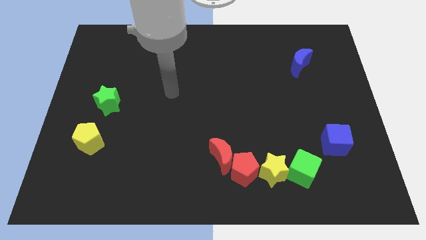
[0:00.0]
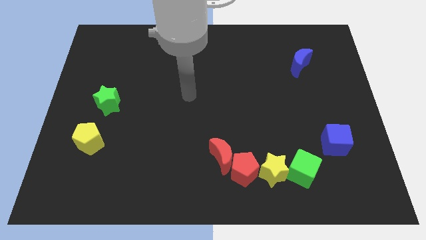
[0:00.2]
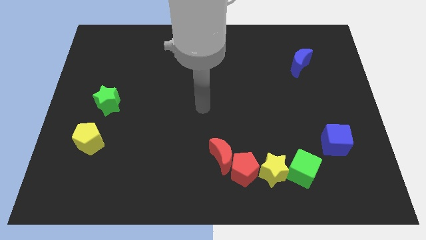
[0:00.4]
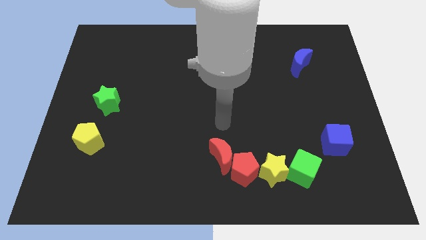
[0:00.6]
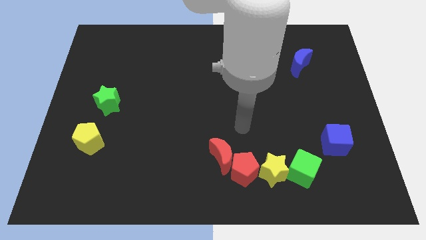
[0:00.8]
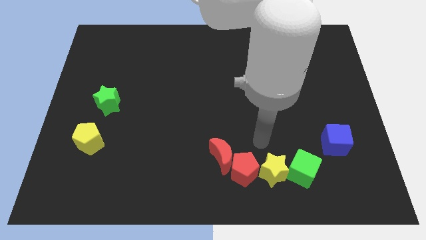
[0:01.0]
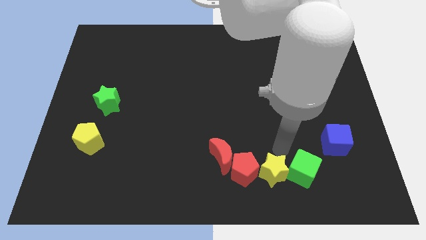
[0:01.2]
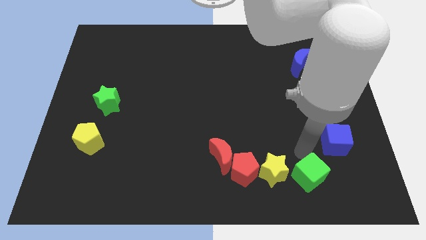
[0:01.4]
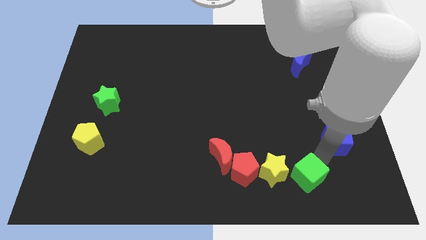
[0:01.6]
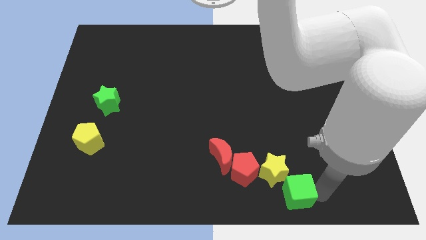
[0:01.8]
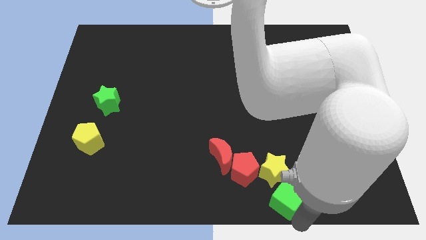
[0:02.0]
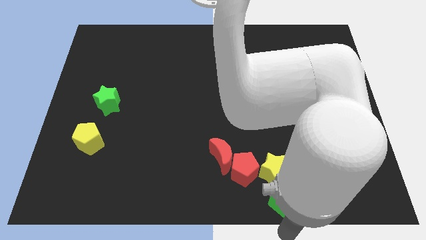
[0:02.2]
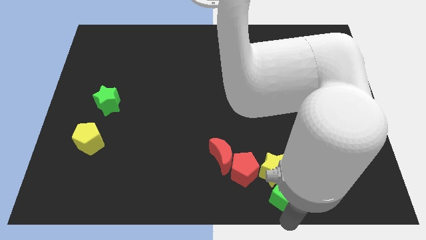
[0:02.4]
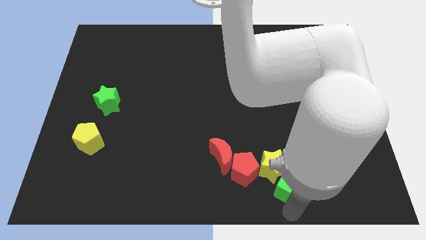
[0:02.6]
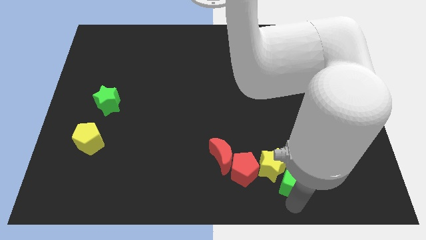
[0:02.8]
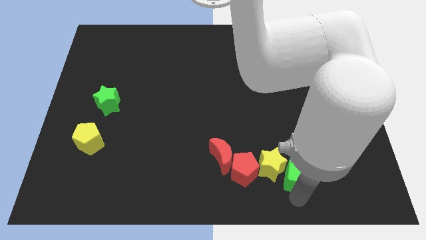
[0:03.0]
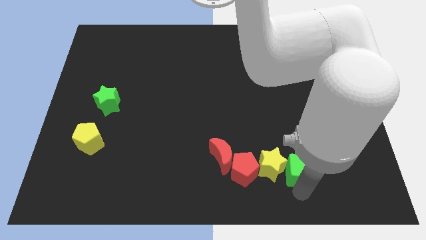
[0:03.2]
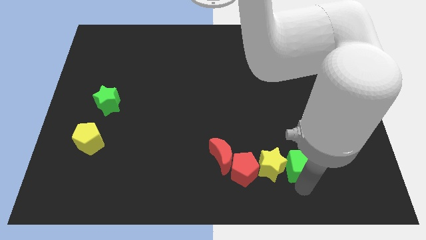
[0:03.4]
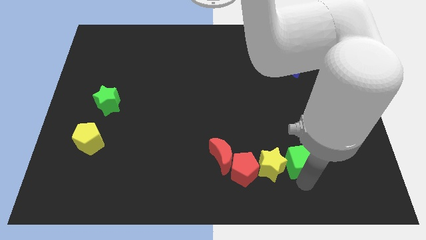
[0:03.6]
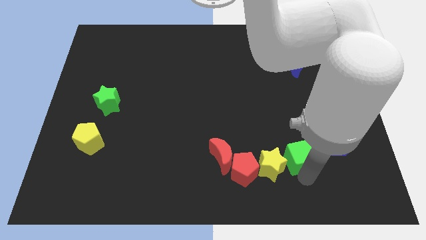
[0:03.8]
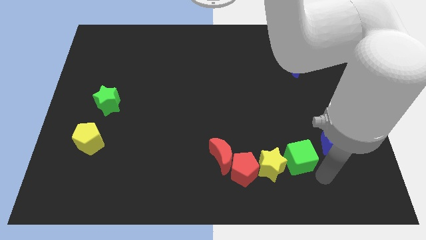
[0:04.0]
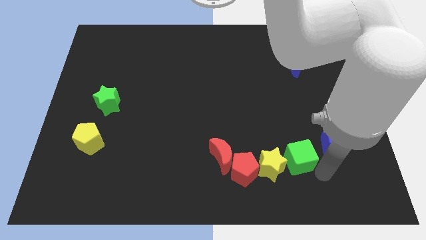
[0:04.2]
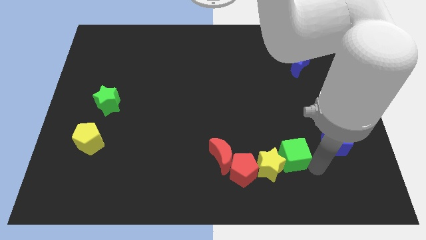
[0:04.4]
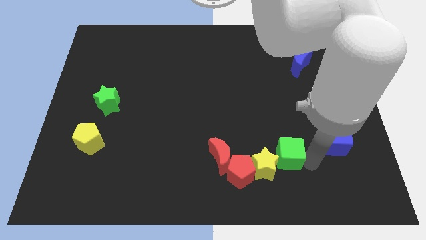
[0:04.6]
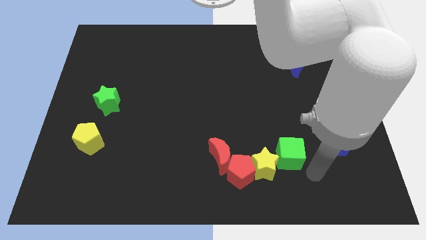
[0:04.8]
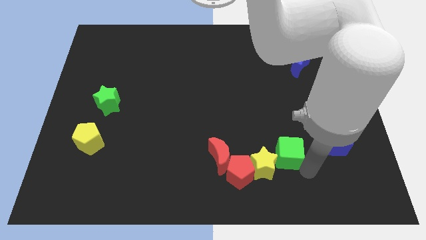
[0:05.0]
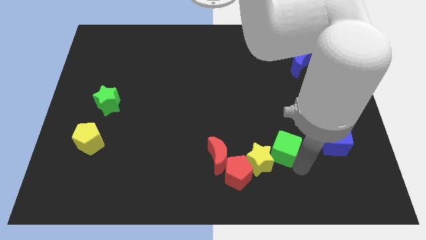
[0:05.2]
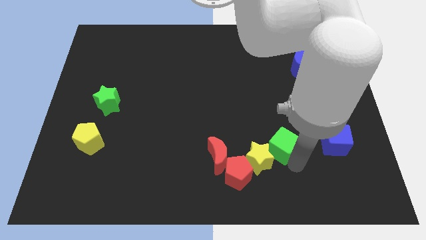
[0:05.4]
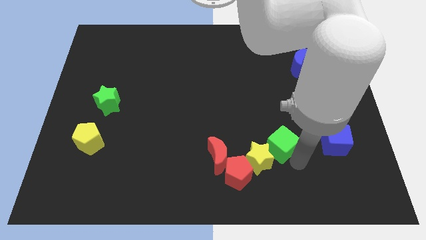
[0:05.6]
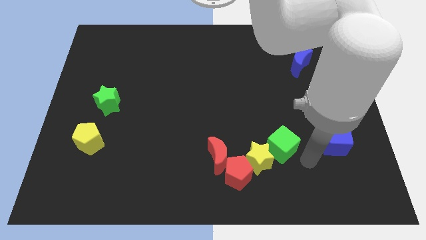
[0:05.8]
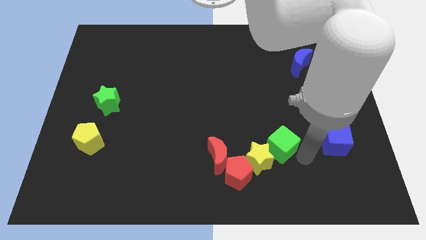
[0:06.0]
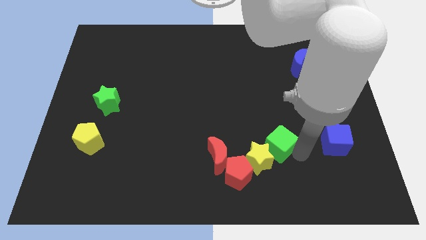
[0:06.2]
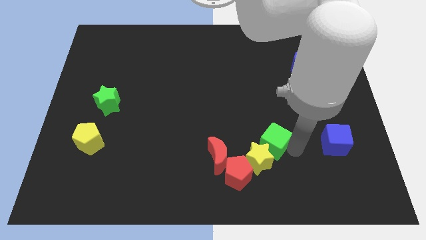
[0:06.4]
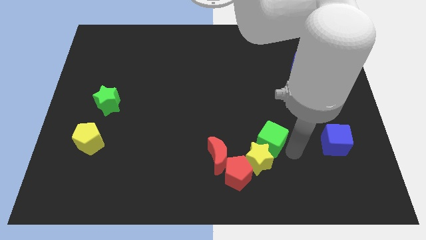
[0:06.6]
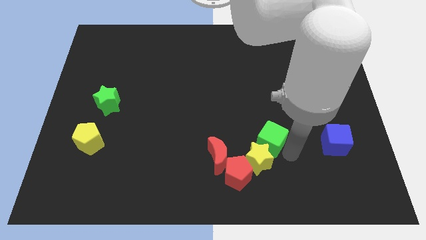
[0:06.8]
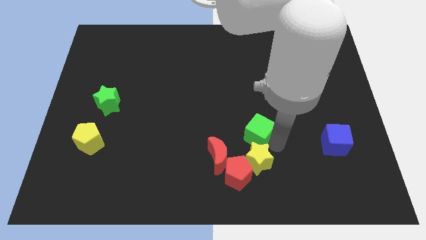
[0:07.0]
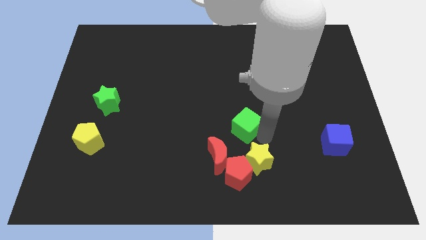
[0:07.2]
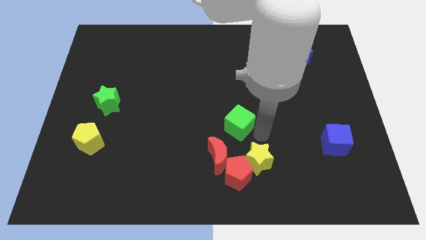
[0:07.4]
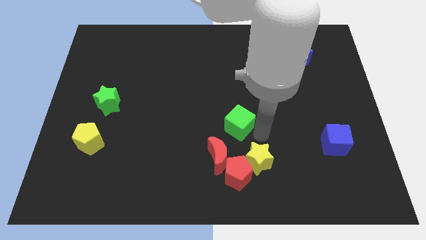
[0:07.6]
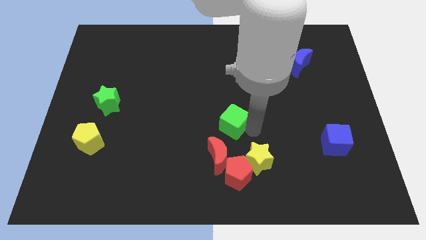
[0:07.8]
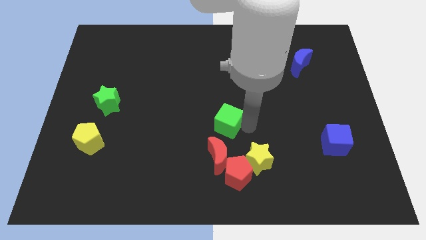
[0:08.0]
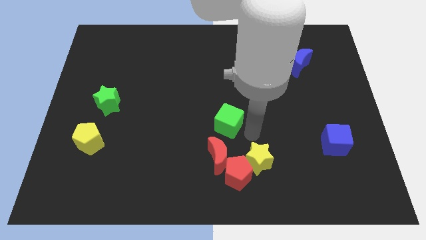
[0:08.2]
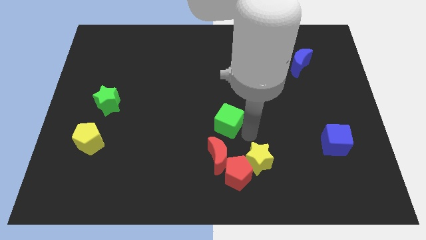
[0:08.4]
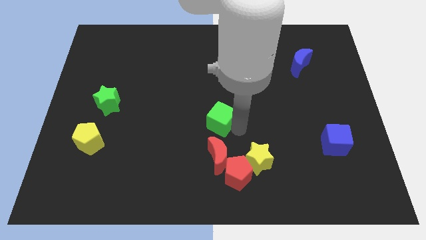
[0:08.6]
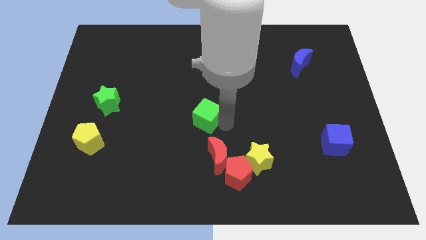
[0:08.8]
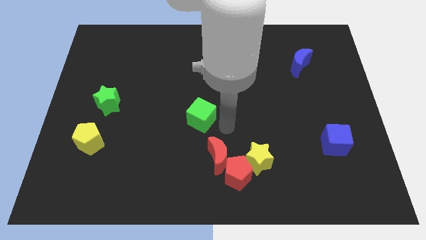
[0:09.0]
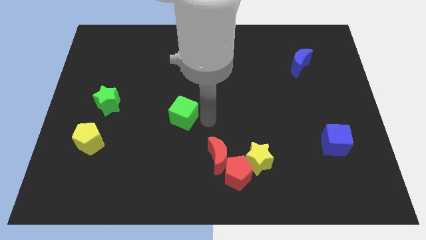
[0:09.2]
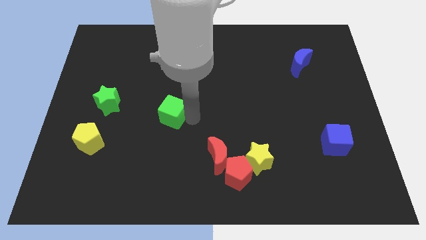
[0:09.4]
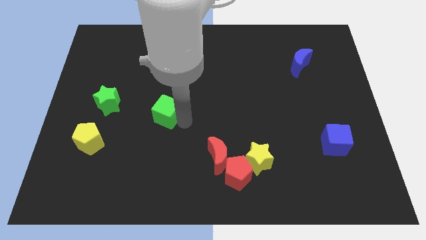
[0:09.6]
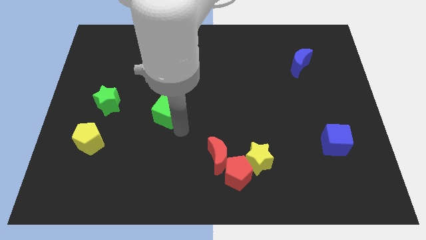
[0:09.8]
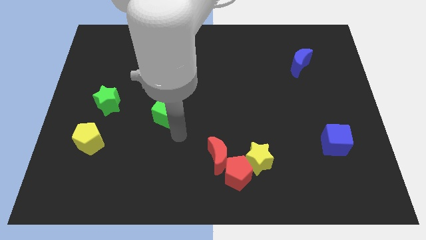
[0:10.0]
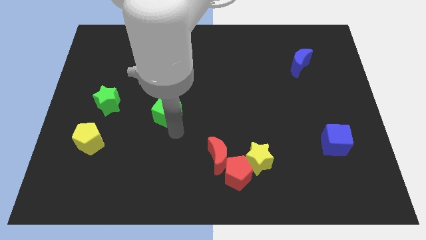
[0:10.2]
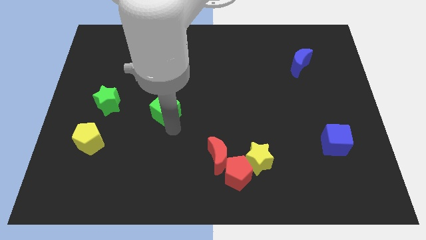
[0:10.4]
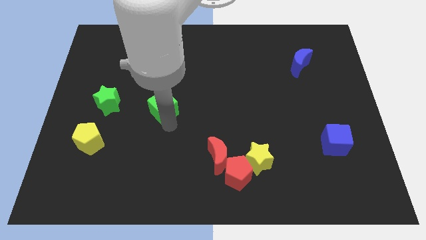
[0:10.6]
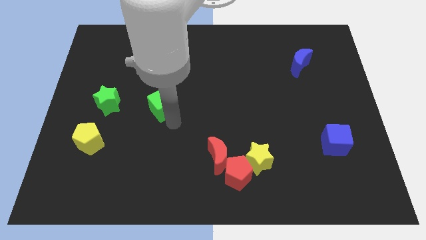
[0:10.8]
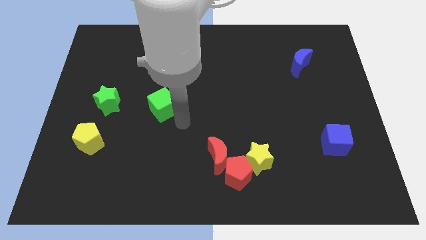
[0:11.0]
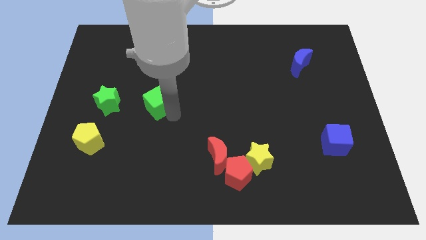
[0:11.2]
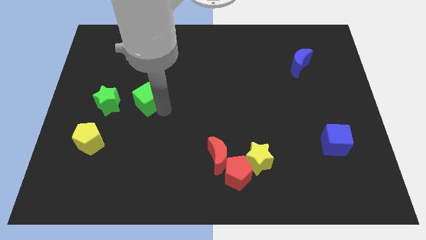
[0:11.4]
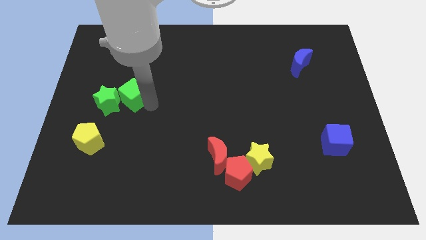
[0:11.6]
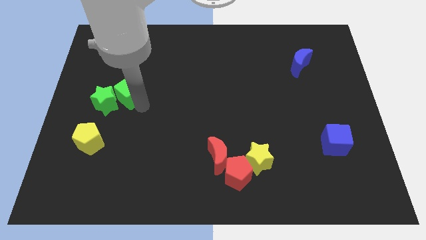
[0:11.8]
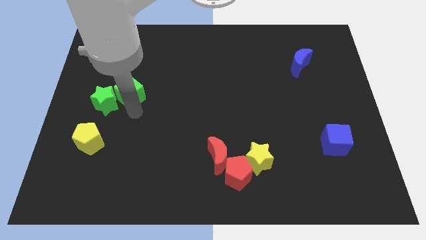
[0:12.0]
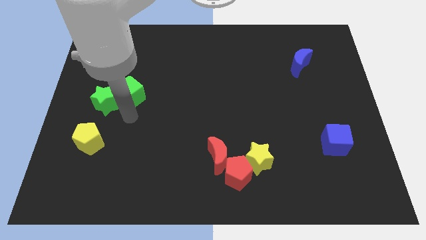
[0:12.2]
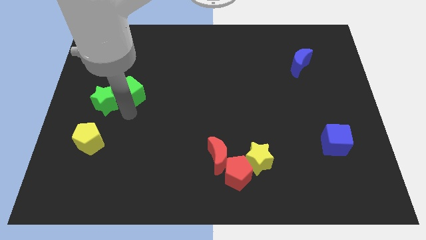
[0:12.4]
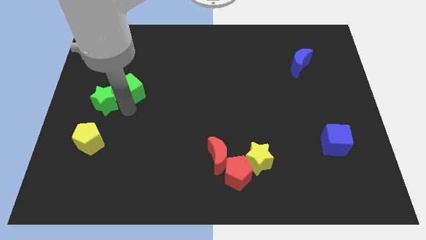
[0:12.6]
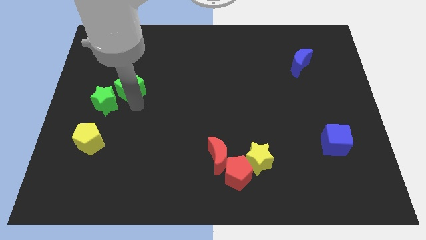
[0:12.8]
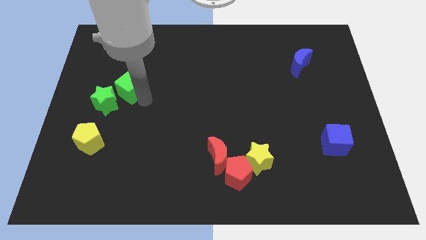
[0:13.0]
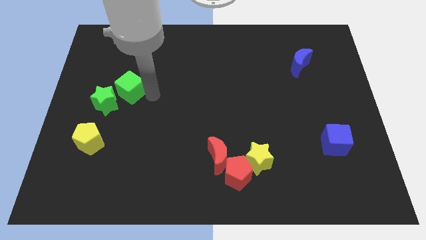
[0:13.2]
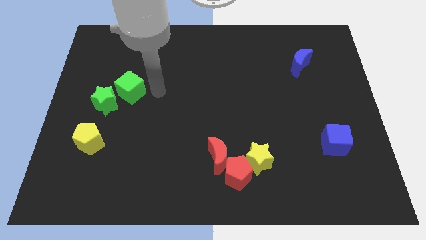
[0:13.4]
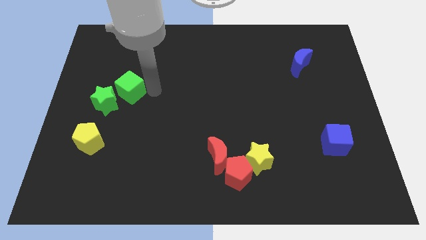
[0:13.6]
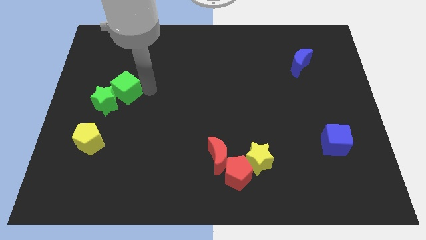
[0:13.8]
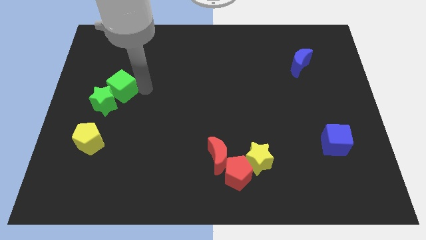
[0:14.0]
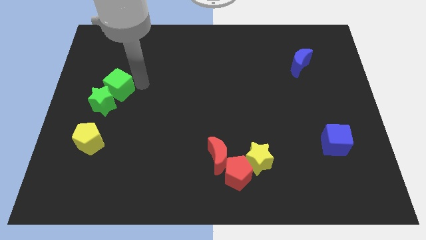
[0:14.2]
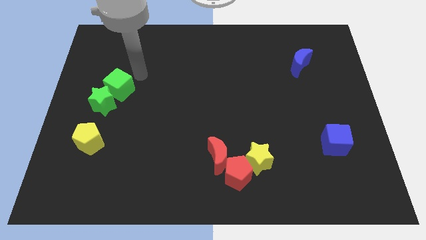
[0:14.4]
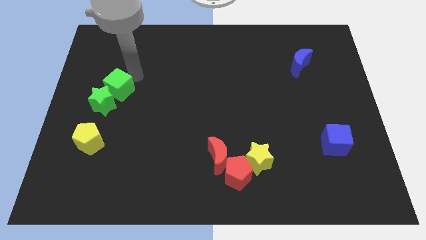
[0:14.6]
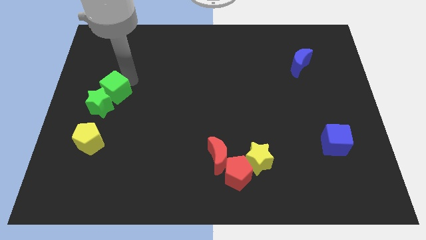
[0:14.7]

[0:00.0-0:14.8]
put the green cube above the yellow pentagon

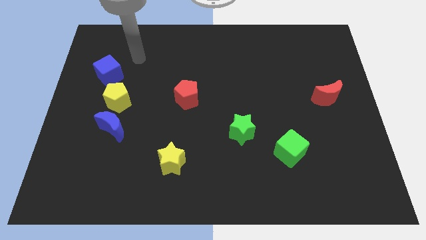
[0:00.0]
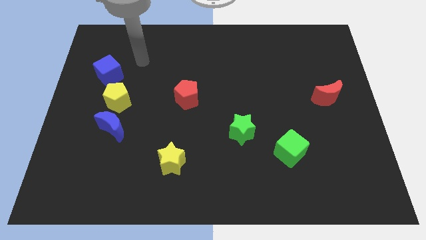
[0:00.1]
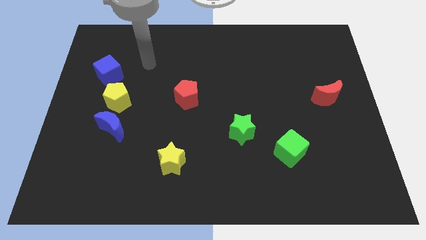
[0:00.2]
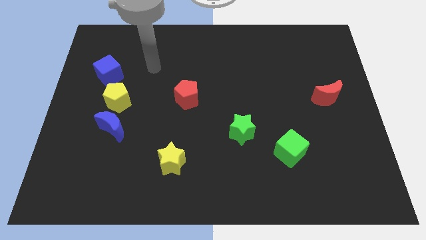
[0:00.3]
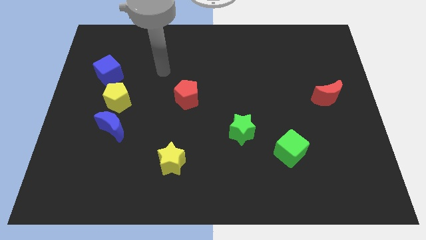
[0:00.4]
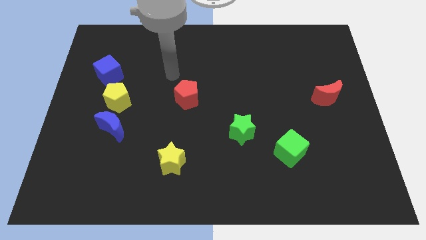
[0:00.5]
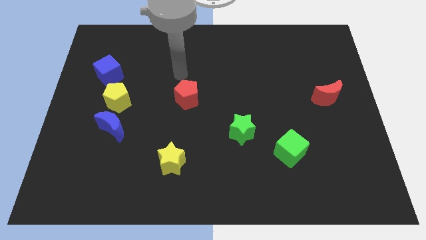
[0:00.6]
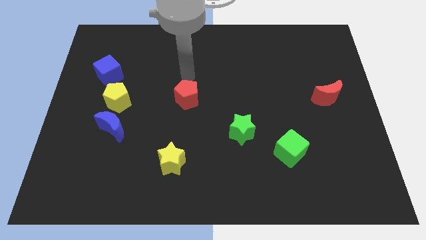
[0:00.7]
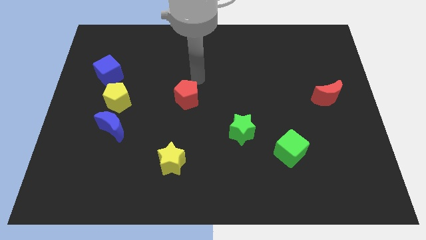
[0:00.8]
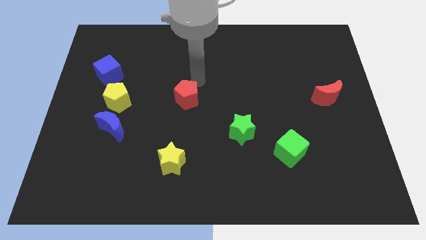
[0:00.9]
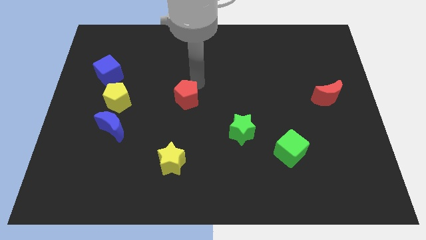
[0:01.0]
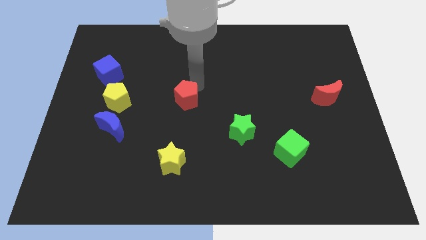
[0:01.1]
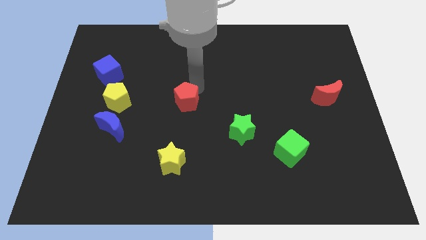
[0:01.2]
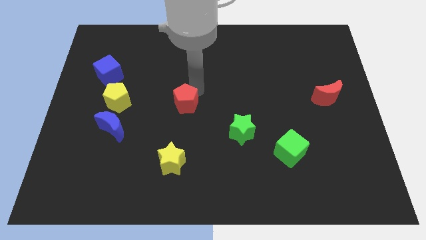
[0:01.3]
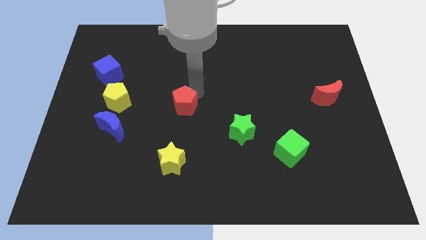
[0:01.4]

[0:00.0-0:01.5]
put the red pentagon to the top of the yellow star
